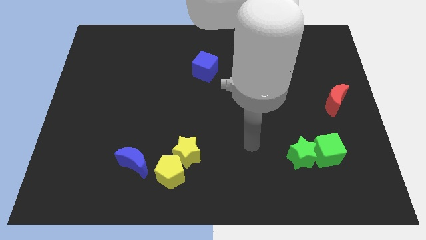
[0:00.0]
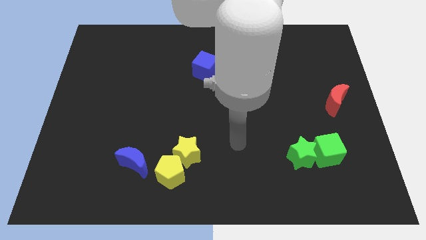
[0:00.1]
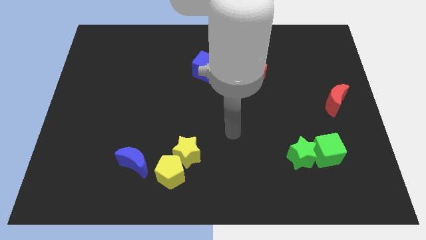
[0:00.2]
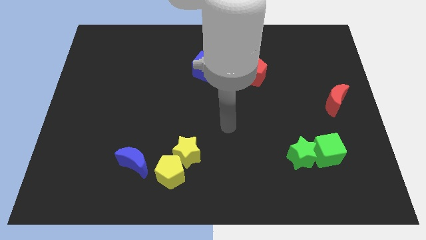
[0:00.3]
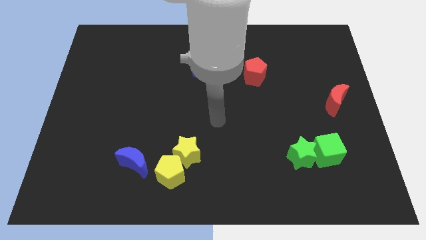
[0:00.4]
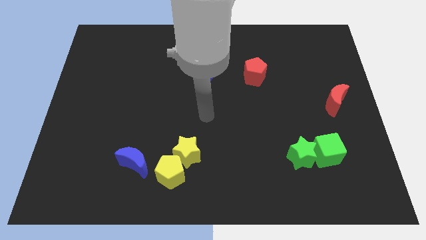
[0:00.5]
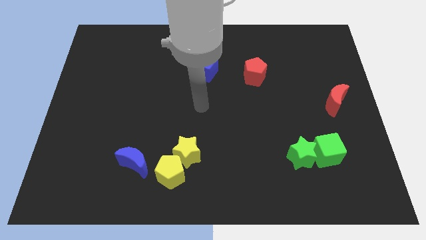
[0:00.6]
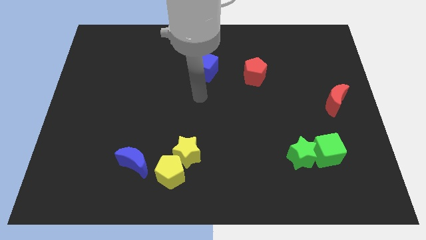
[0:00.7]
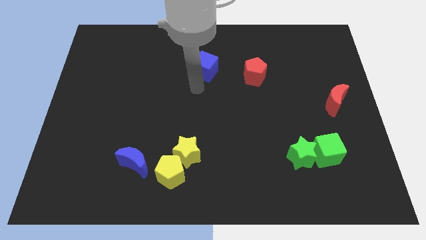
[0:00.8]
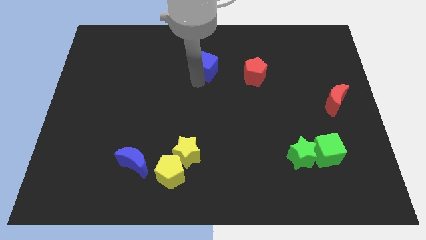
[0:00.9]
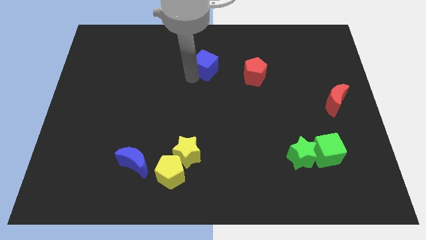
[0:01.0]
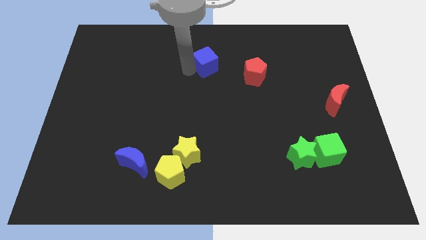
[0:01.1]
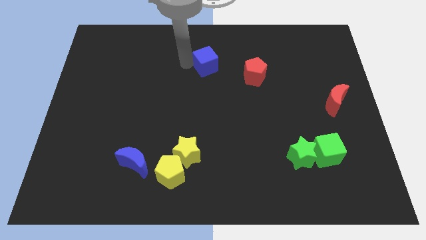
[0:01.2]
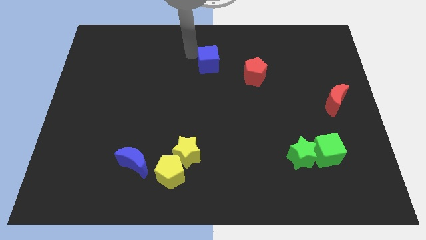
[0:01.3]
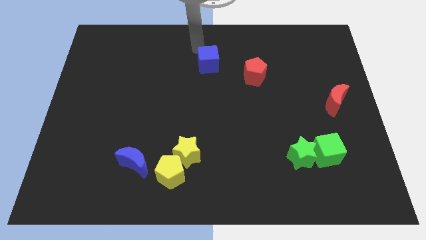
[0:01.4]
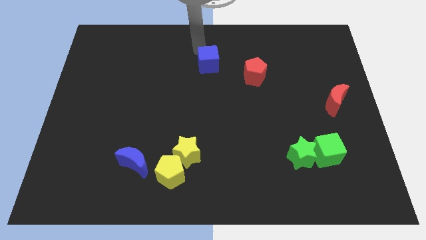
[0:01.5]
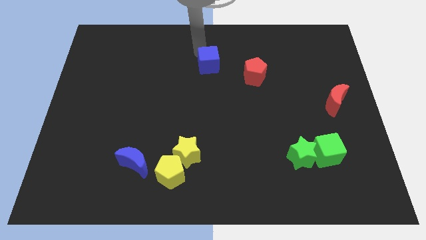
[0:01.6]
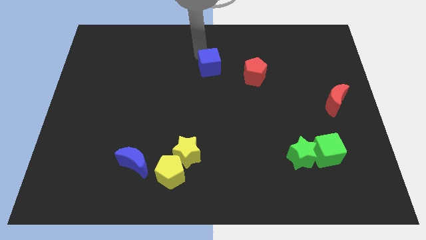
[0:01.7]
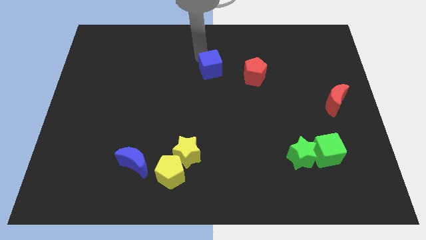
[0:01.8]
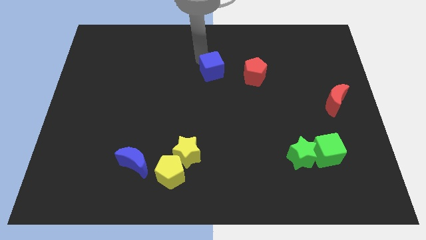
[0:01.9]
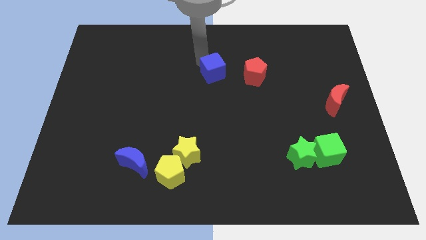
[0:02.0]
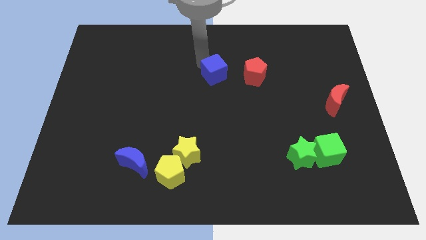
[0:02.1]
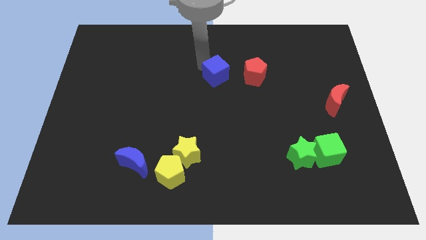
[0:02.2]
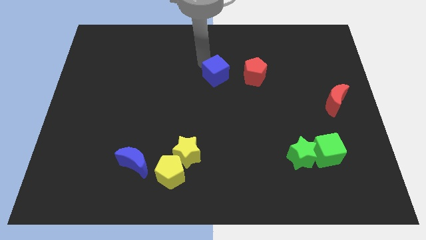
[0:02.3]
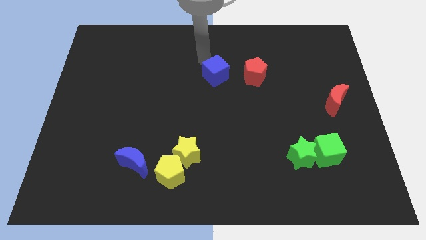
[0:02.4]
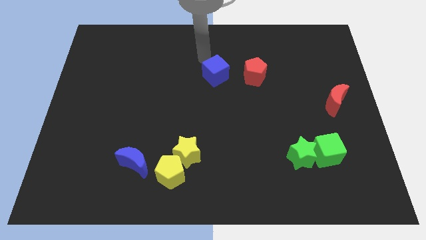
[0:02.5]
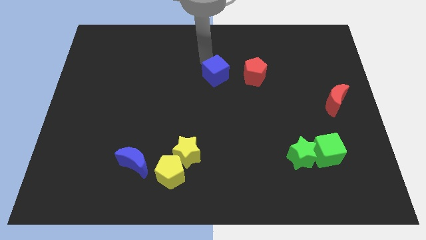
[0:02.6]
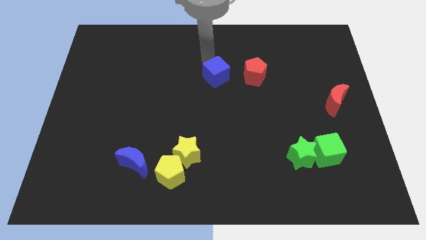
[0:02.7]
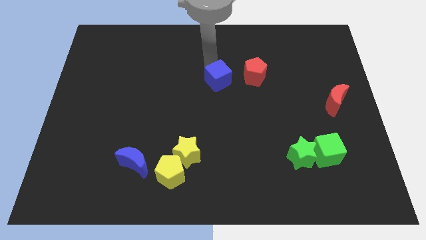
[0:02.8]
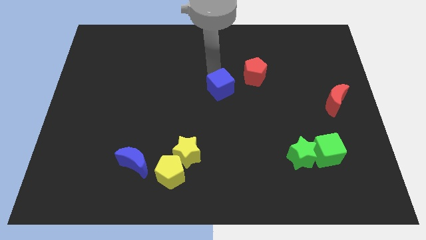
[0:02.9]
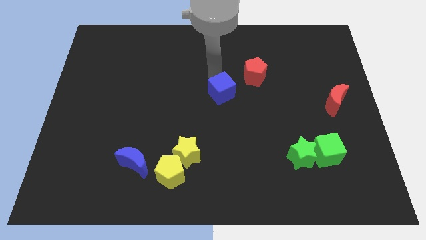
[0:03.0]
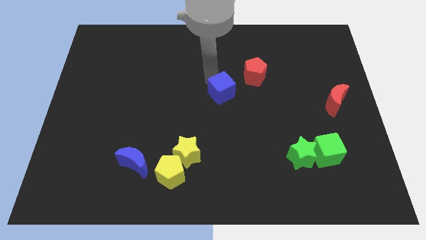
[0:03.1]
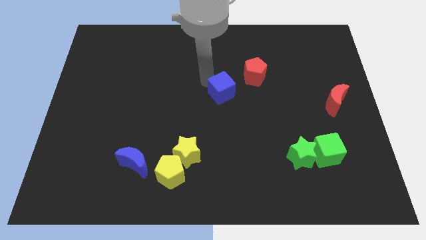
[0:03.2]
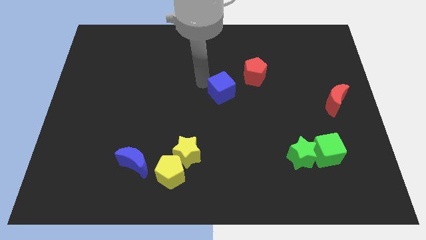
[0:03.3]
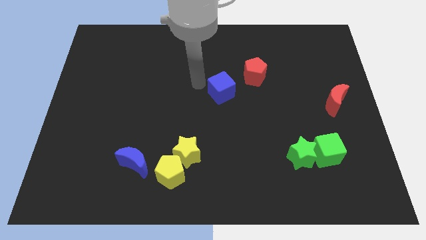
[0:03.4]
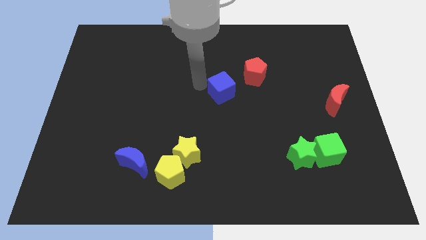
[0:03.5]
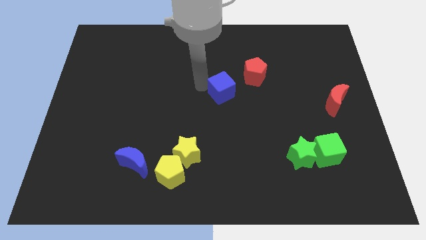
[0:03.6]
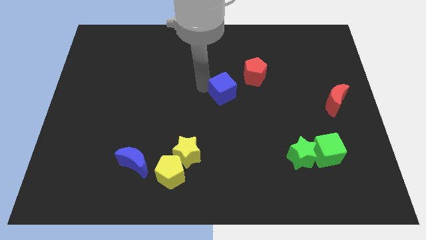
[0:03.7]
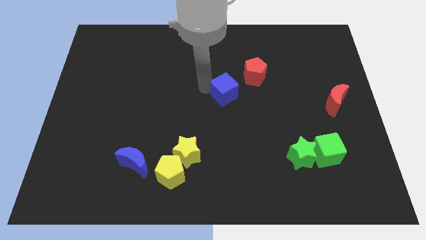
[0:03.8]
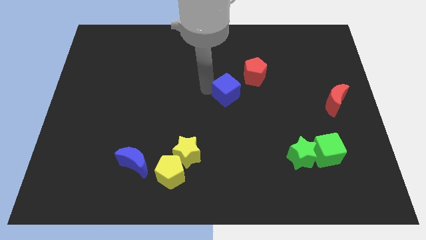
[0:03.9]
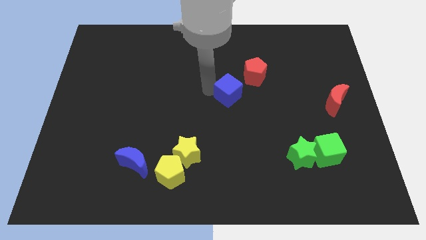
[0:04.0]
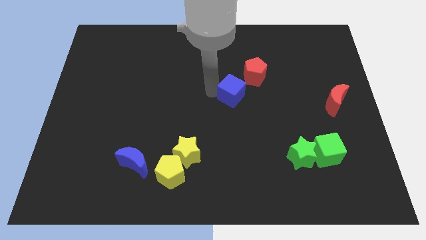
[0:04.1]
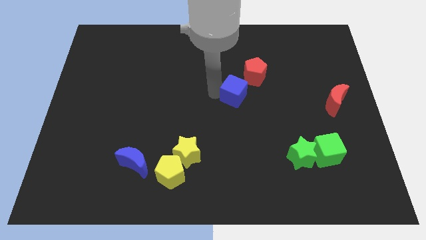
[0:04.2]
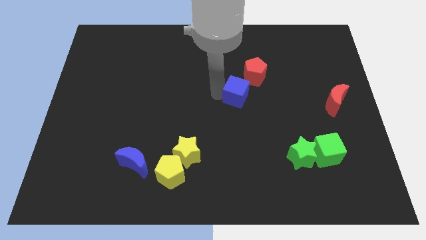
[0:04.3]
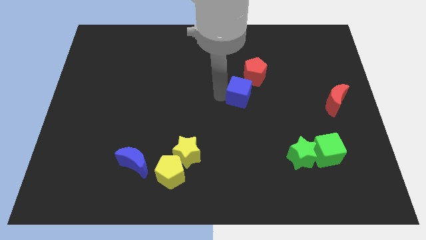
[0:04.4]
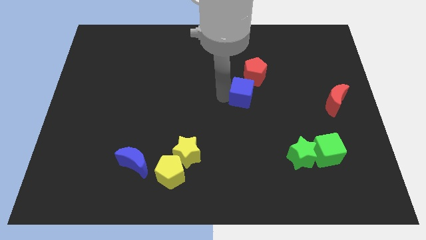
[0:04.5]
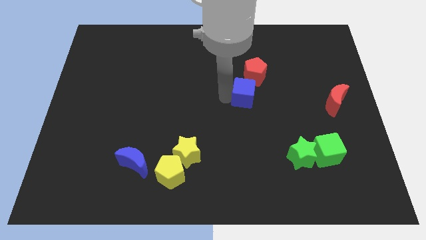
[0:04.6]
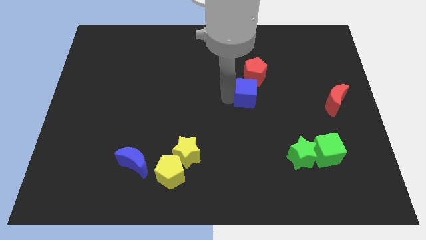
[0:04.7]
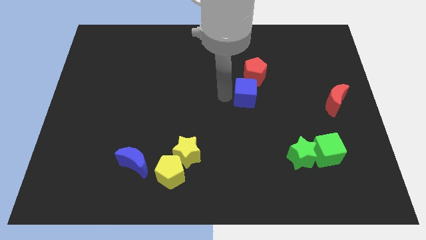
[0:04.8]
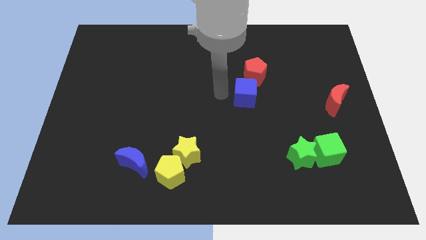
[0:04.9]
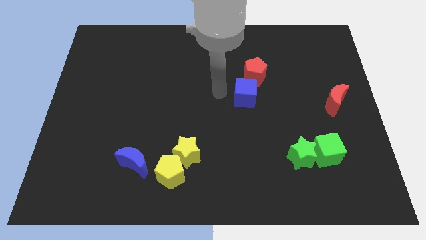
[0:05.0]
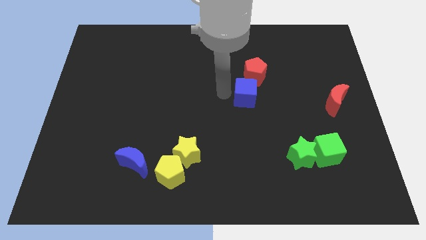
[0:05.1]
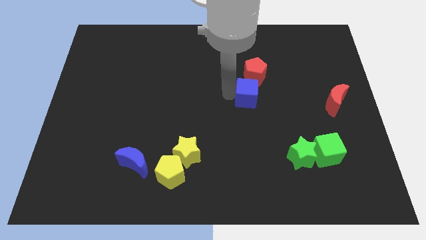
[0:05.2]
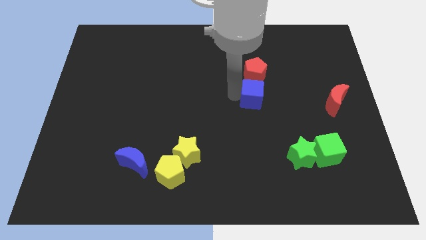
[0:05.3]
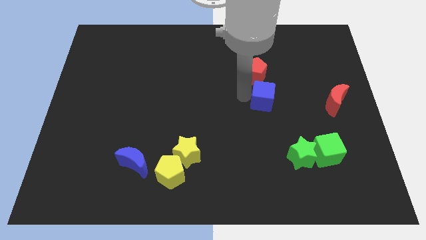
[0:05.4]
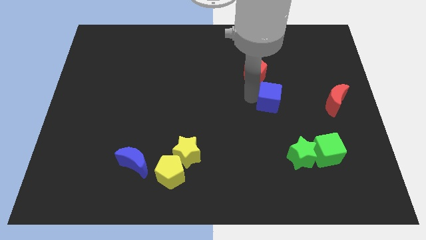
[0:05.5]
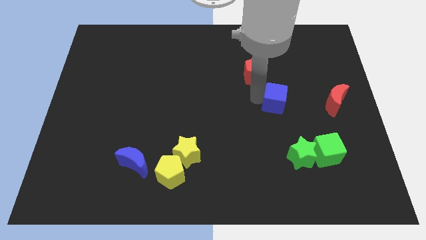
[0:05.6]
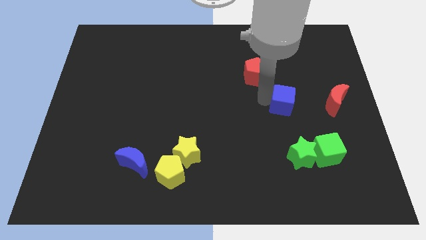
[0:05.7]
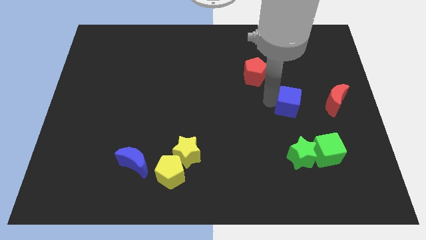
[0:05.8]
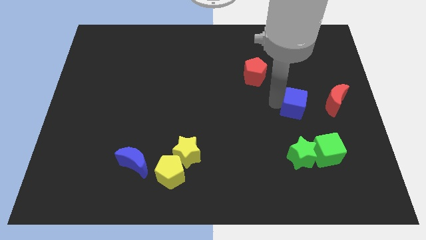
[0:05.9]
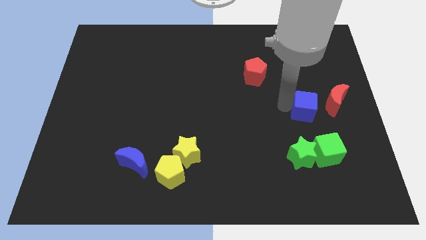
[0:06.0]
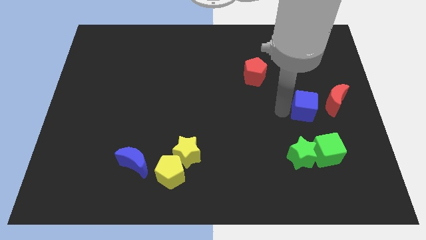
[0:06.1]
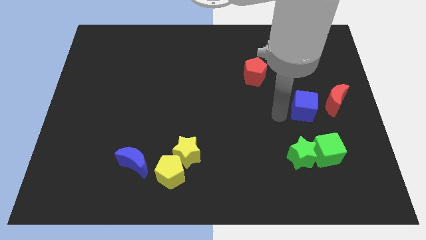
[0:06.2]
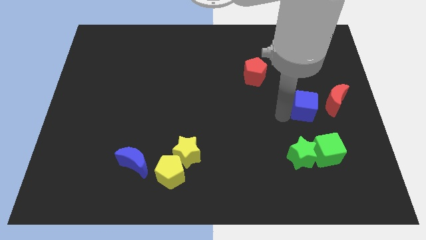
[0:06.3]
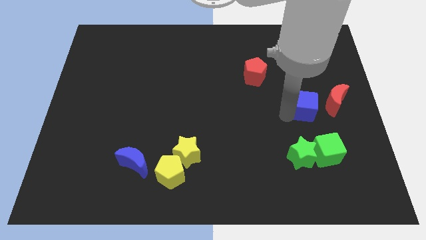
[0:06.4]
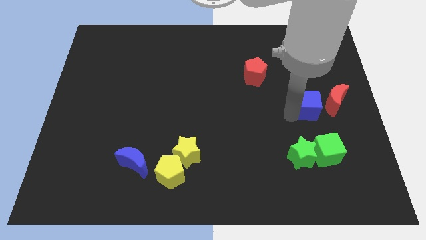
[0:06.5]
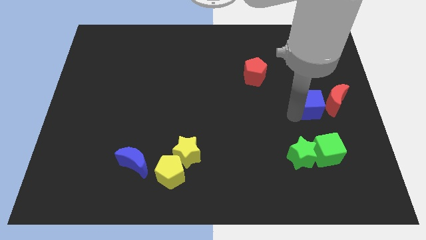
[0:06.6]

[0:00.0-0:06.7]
slide the blue cube towards the red moon
